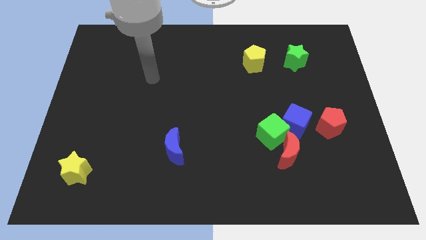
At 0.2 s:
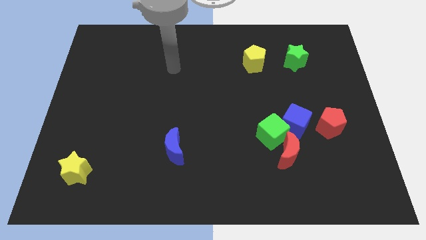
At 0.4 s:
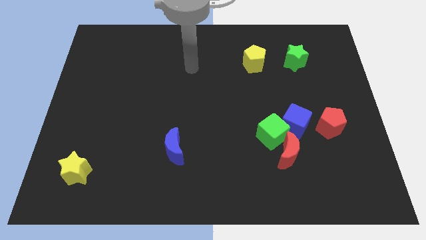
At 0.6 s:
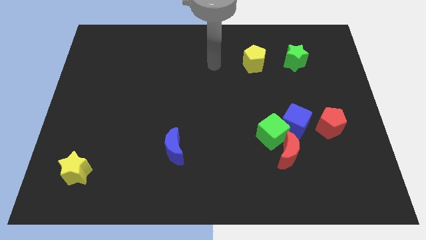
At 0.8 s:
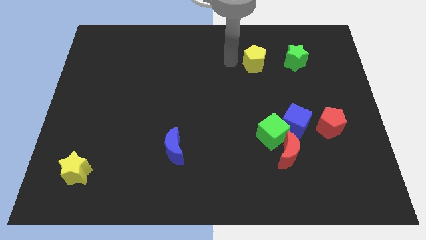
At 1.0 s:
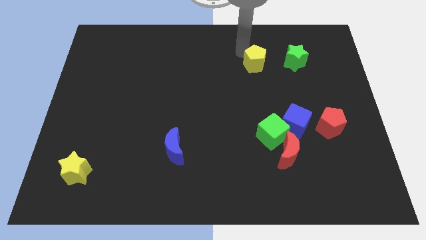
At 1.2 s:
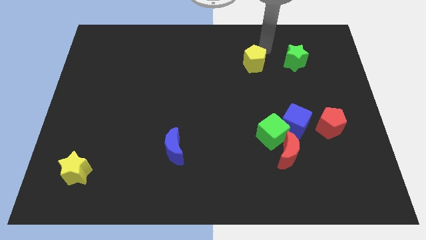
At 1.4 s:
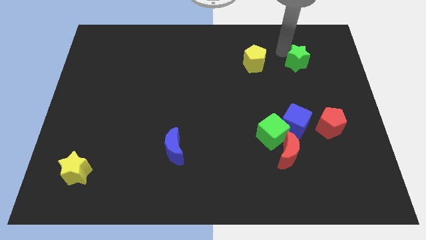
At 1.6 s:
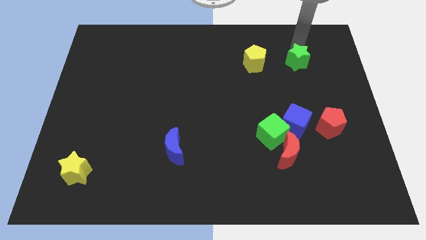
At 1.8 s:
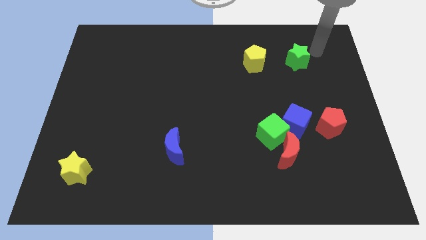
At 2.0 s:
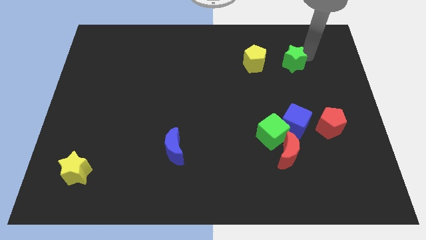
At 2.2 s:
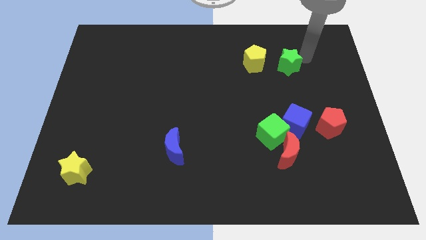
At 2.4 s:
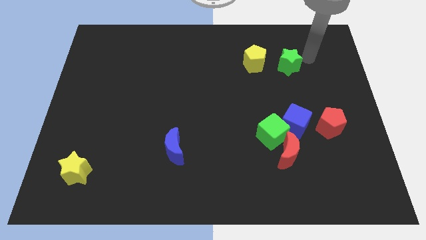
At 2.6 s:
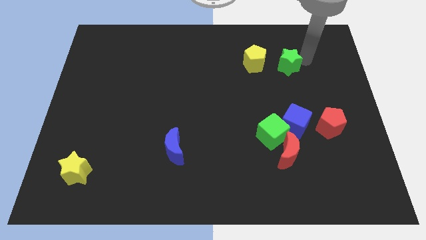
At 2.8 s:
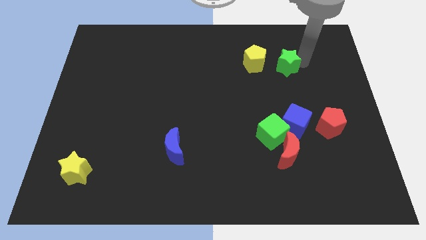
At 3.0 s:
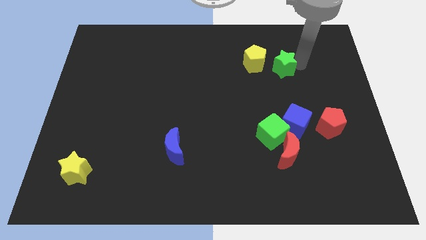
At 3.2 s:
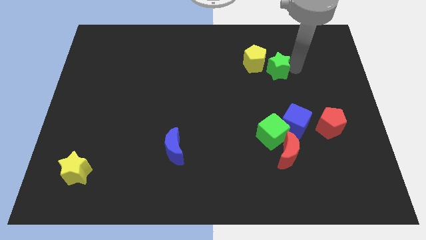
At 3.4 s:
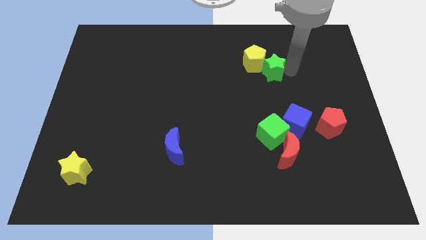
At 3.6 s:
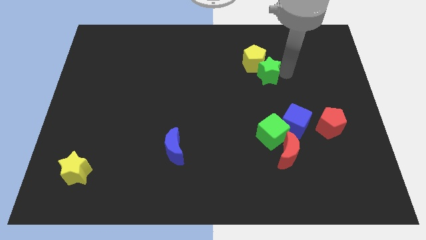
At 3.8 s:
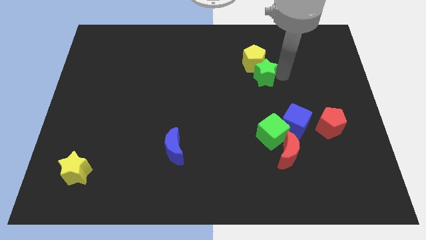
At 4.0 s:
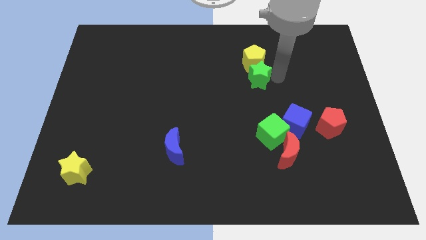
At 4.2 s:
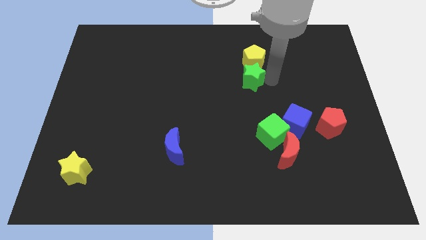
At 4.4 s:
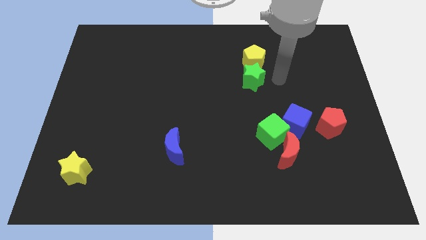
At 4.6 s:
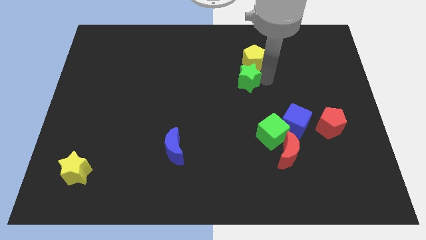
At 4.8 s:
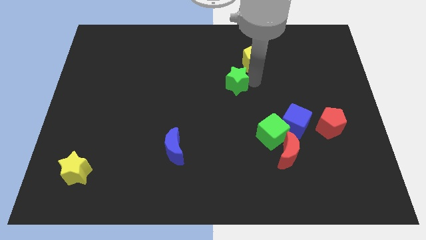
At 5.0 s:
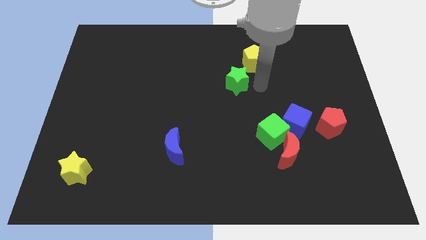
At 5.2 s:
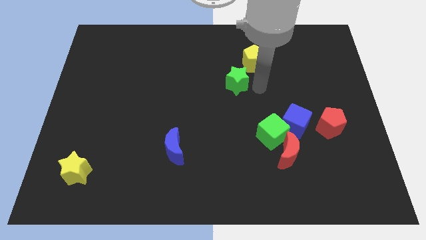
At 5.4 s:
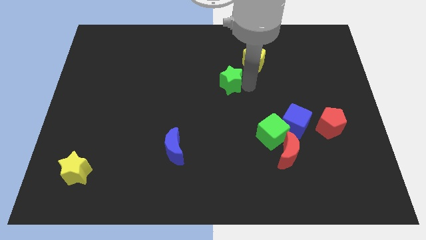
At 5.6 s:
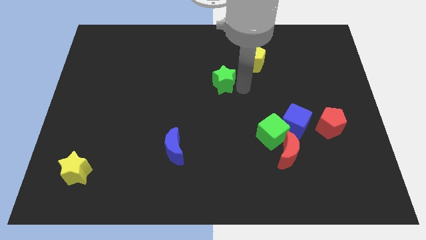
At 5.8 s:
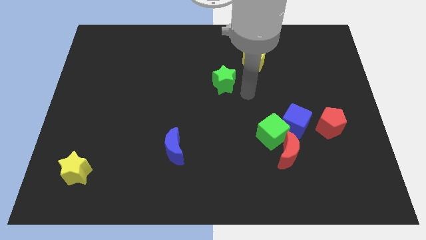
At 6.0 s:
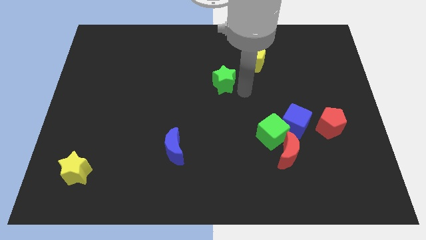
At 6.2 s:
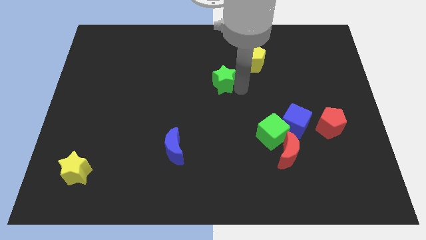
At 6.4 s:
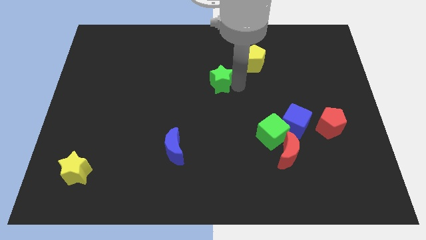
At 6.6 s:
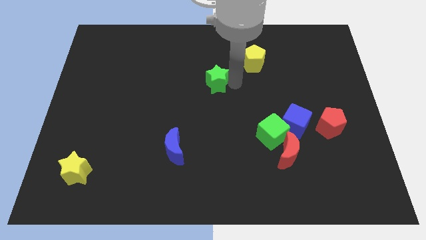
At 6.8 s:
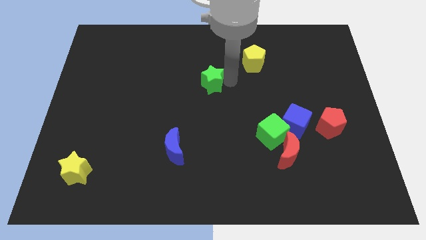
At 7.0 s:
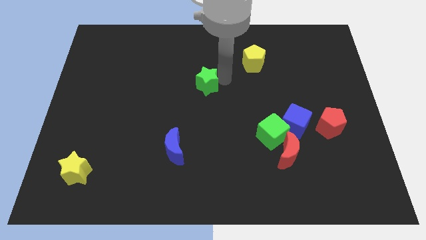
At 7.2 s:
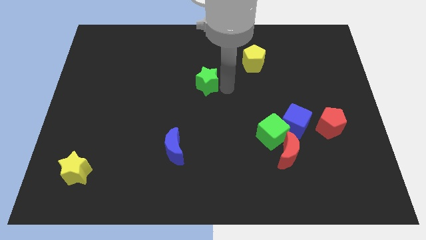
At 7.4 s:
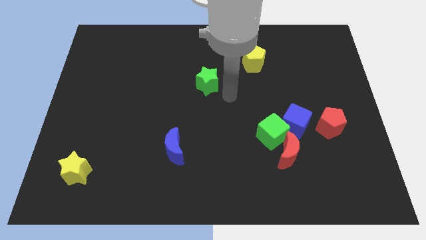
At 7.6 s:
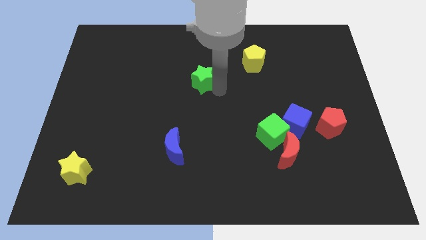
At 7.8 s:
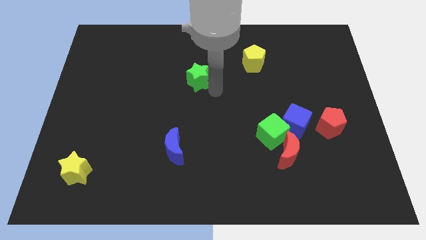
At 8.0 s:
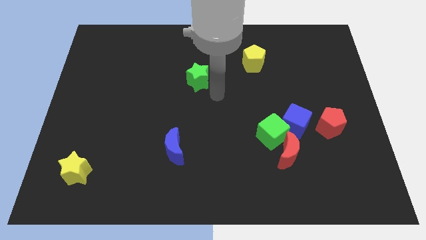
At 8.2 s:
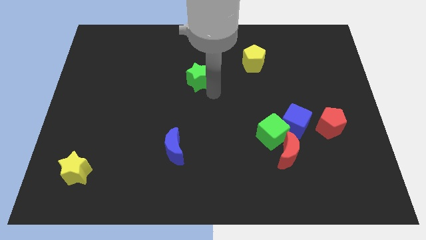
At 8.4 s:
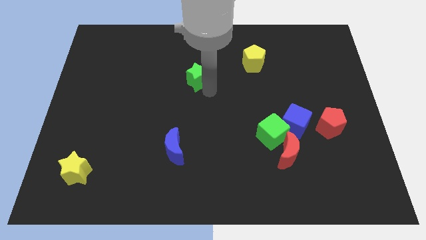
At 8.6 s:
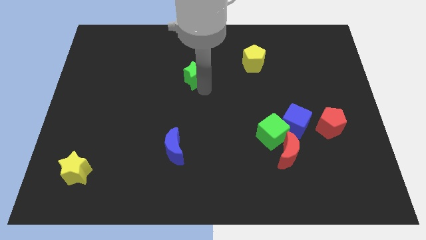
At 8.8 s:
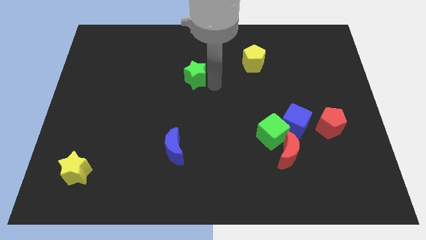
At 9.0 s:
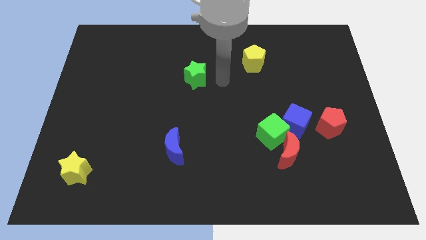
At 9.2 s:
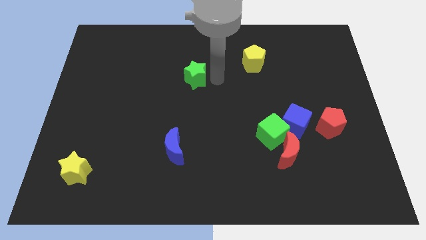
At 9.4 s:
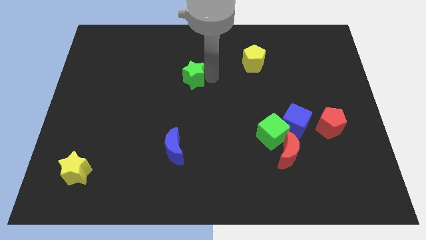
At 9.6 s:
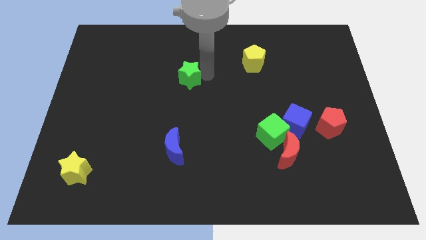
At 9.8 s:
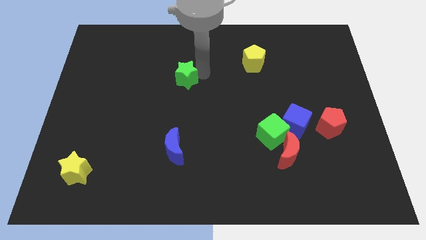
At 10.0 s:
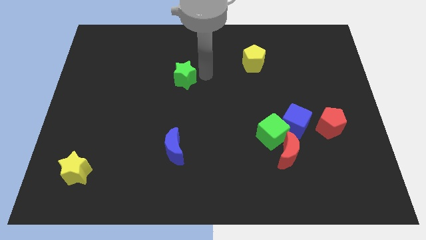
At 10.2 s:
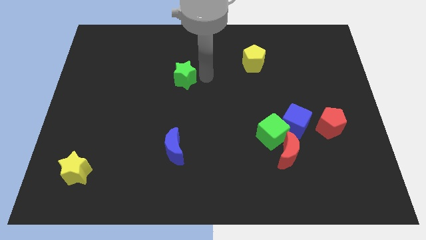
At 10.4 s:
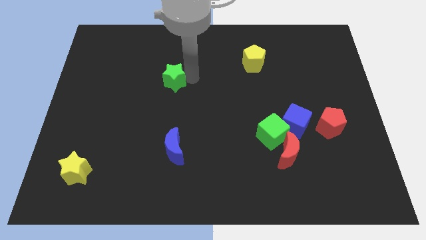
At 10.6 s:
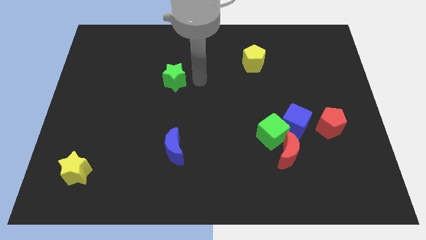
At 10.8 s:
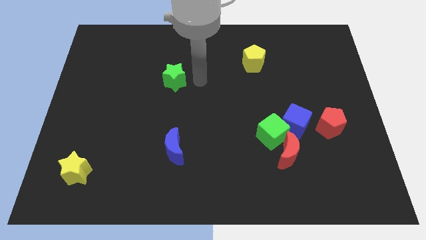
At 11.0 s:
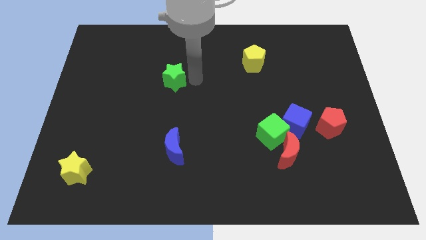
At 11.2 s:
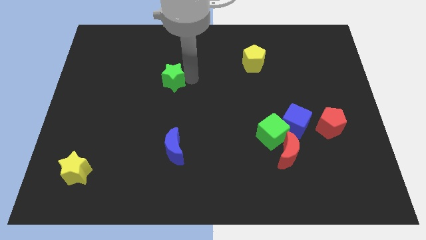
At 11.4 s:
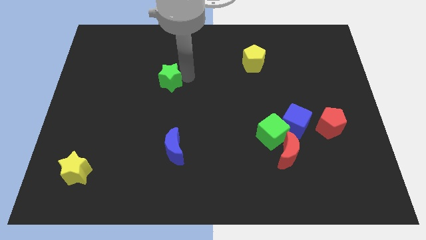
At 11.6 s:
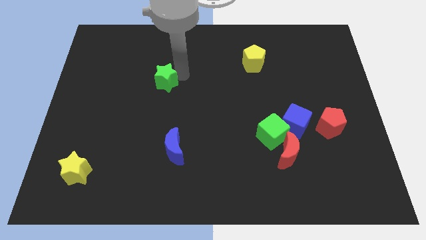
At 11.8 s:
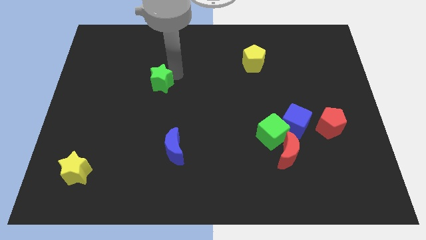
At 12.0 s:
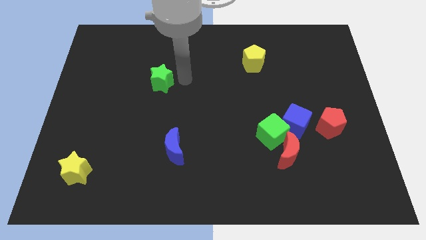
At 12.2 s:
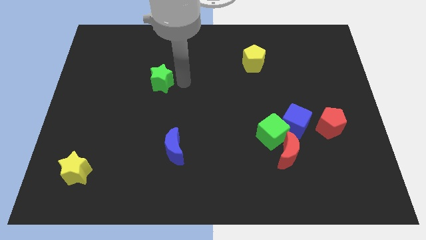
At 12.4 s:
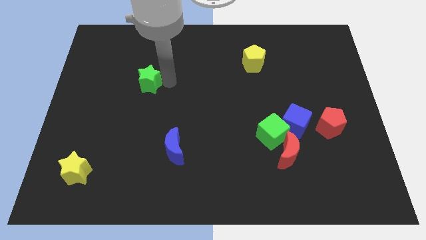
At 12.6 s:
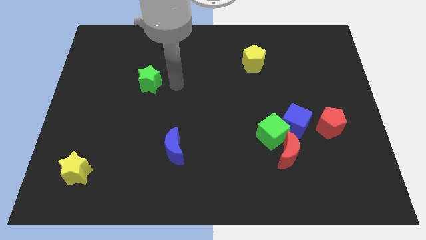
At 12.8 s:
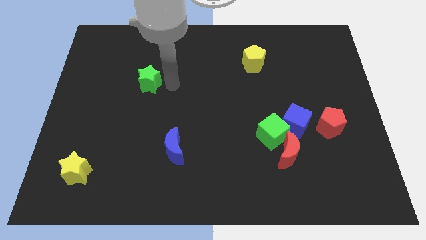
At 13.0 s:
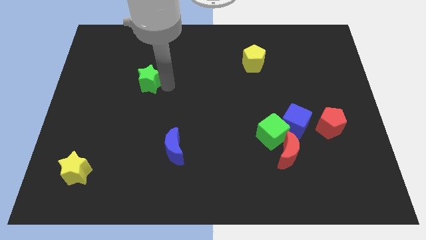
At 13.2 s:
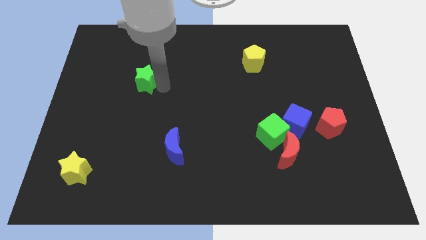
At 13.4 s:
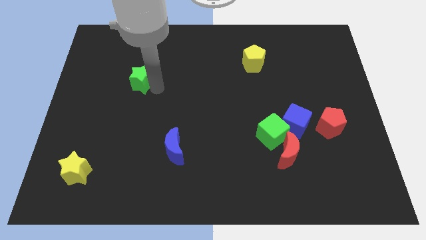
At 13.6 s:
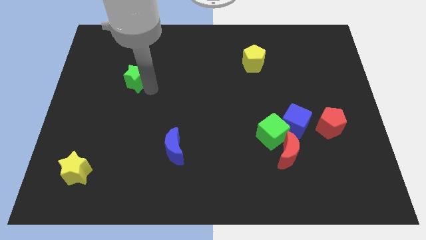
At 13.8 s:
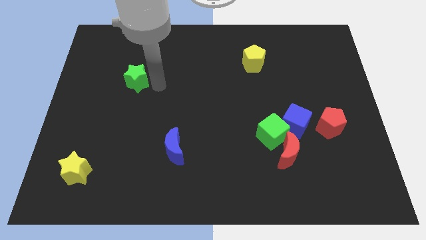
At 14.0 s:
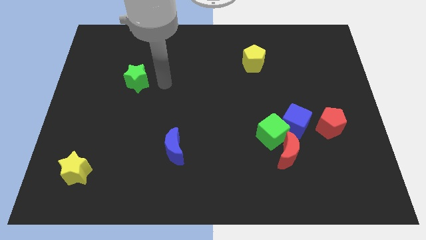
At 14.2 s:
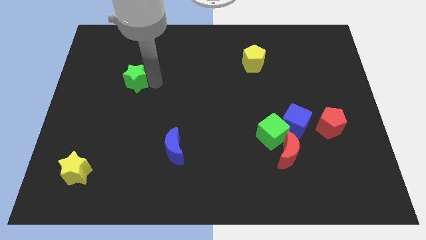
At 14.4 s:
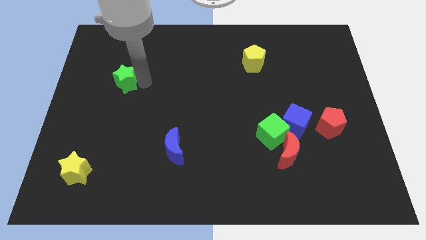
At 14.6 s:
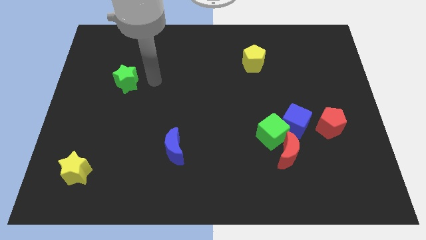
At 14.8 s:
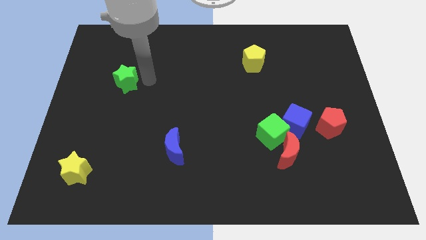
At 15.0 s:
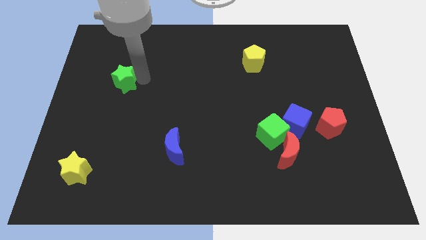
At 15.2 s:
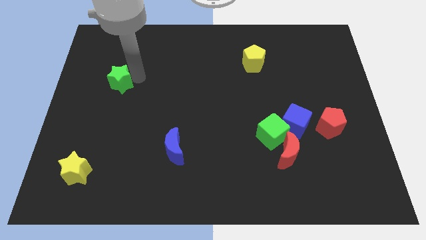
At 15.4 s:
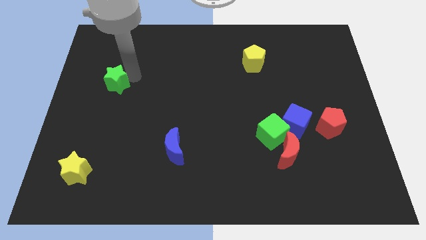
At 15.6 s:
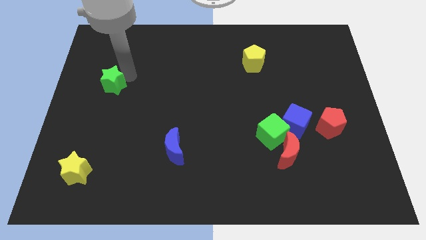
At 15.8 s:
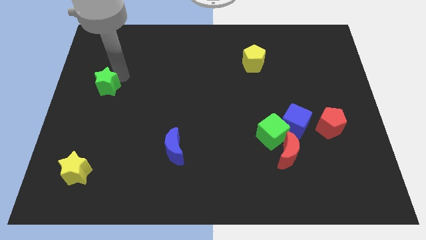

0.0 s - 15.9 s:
slide the green star to the left side of the board
